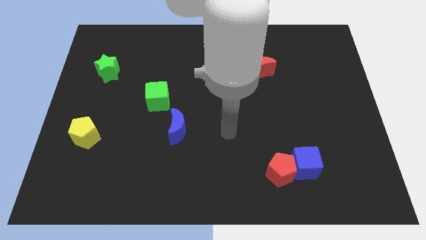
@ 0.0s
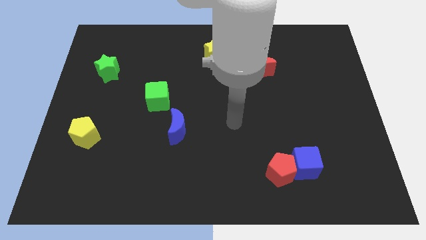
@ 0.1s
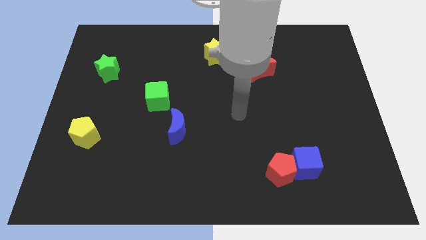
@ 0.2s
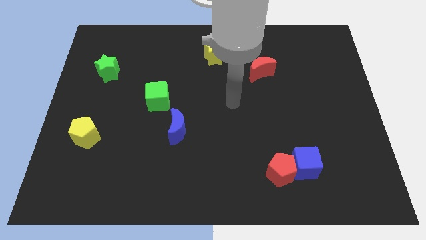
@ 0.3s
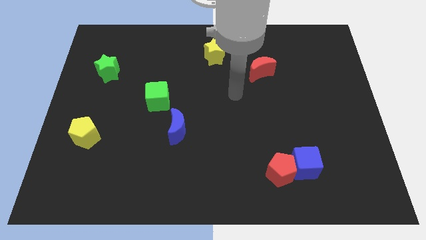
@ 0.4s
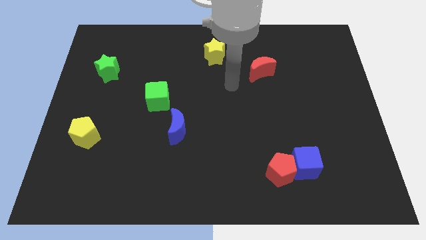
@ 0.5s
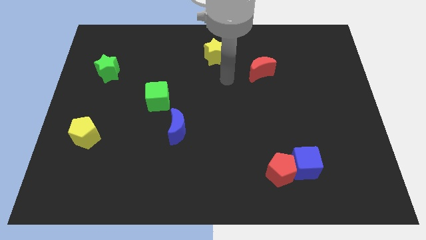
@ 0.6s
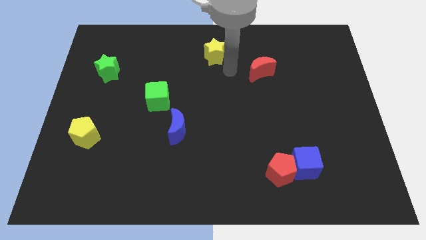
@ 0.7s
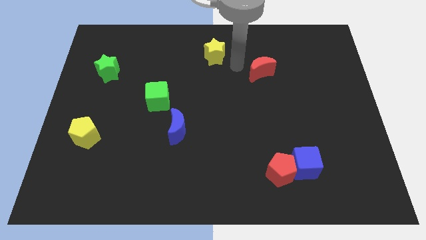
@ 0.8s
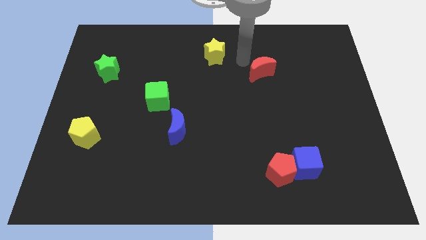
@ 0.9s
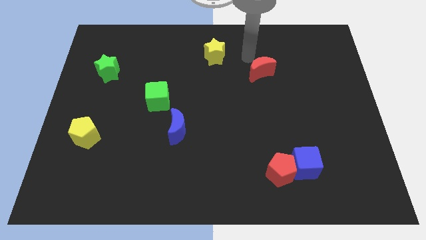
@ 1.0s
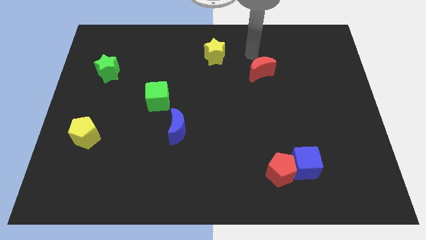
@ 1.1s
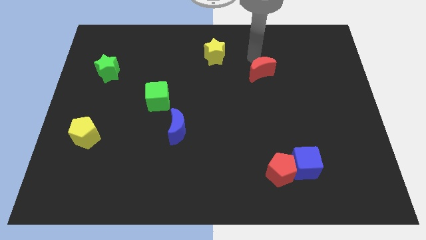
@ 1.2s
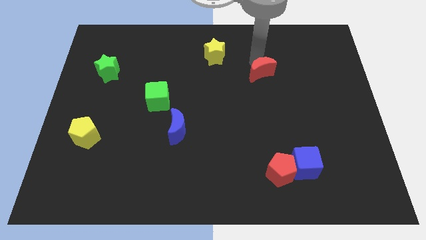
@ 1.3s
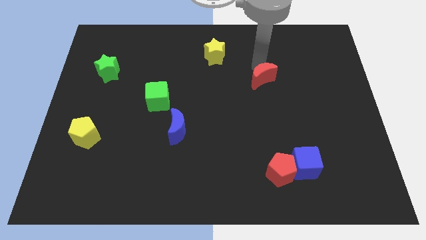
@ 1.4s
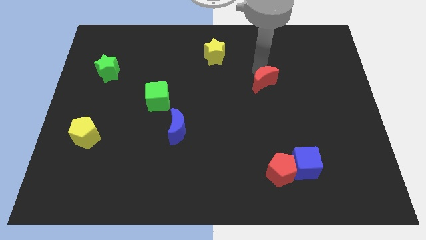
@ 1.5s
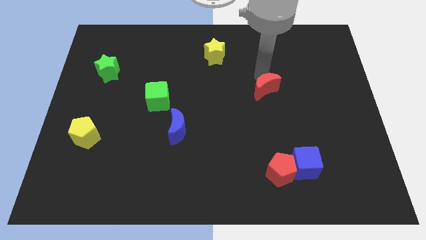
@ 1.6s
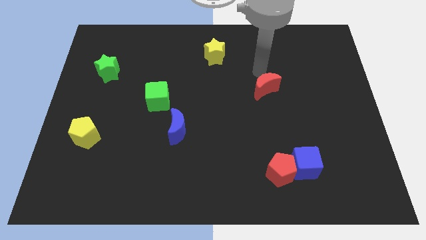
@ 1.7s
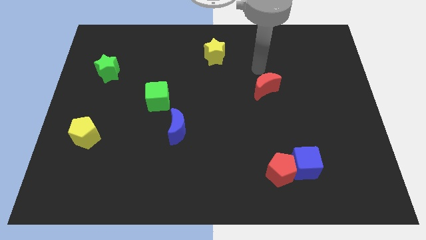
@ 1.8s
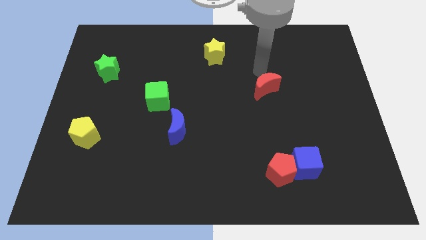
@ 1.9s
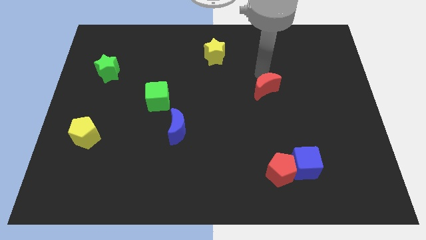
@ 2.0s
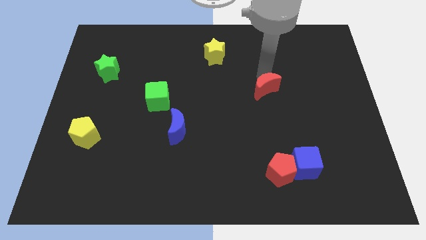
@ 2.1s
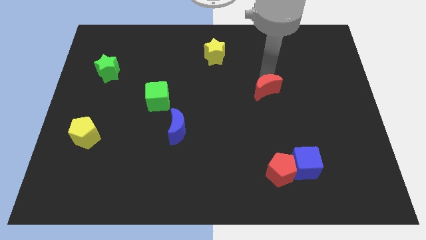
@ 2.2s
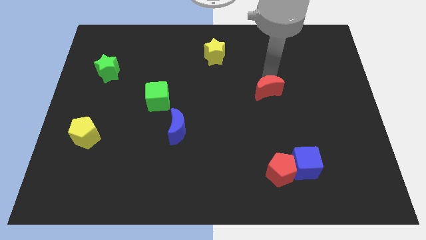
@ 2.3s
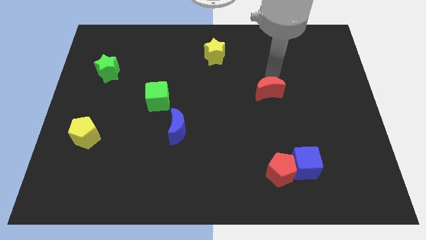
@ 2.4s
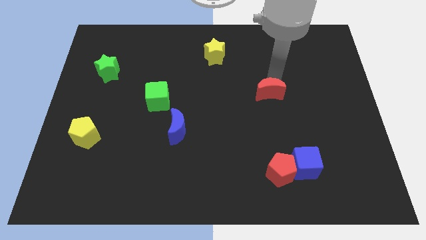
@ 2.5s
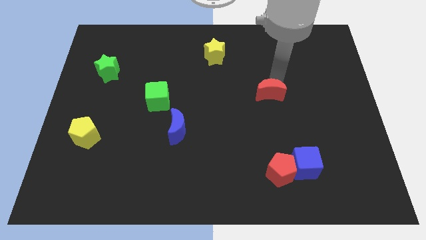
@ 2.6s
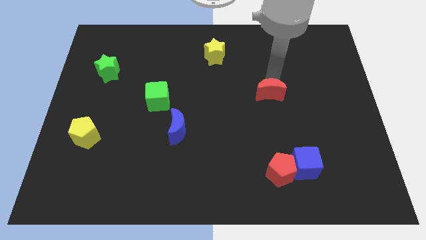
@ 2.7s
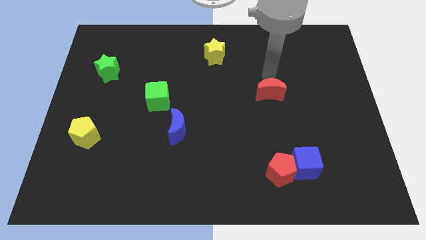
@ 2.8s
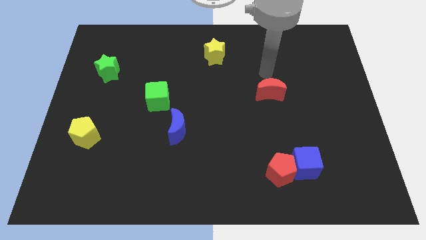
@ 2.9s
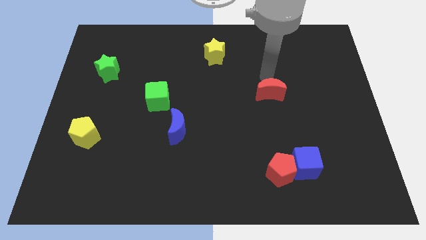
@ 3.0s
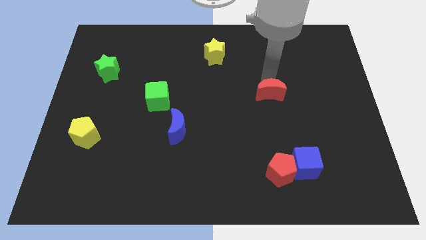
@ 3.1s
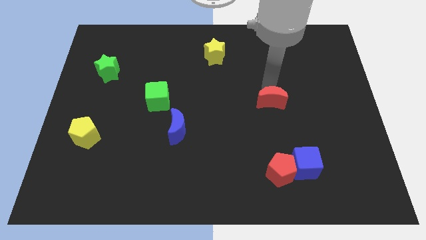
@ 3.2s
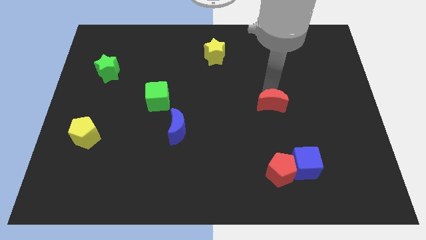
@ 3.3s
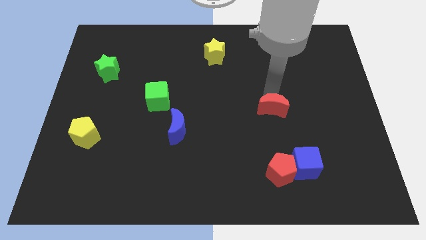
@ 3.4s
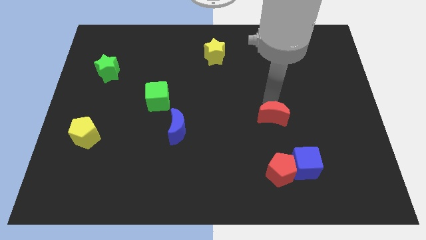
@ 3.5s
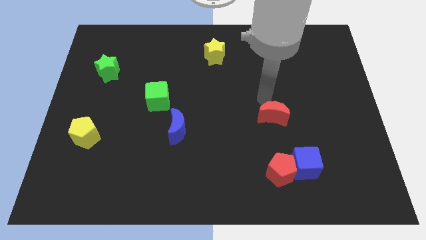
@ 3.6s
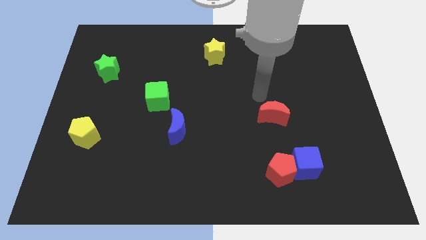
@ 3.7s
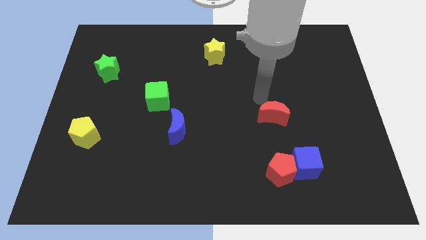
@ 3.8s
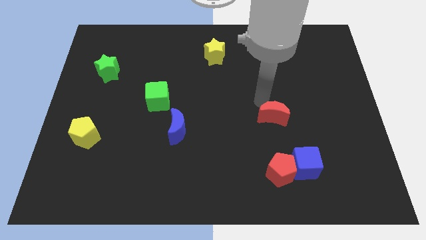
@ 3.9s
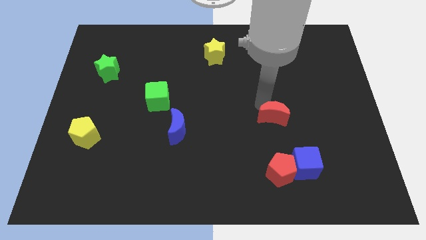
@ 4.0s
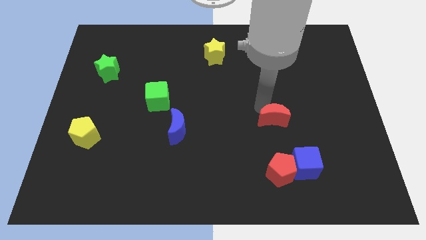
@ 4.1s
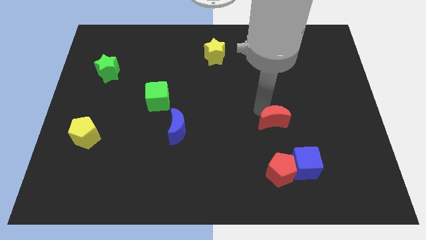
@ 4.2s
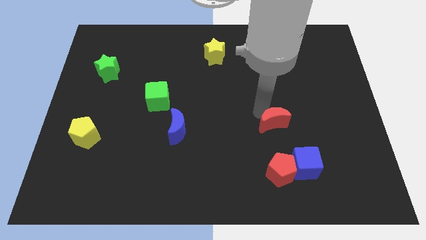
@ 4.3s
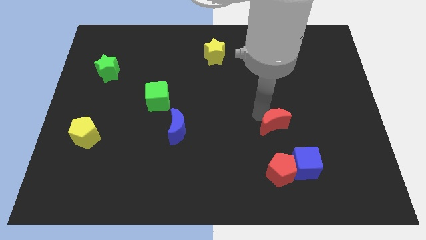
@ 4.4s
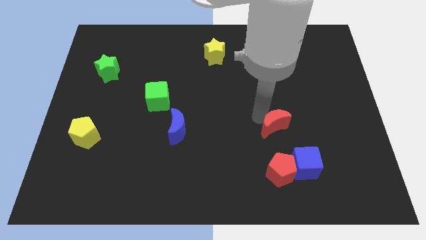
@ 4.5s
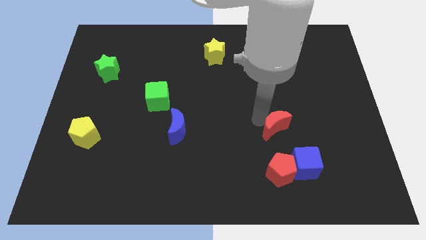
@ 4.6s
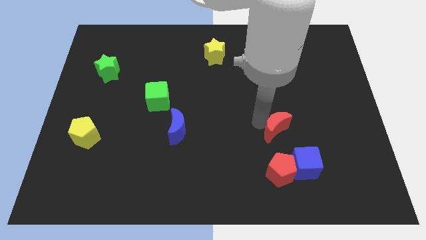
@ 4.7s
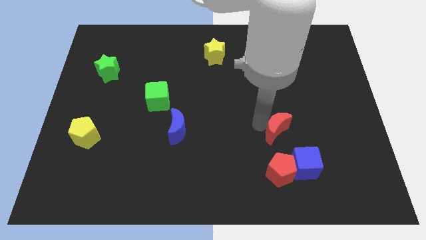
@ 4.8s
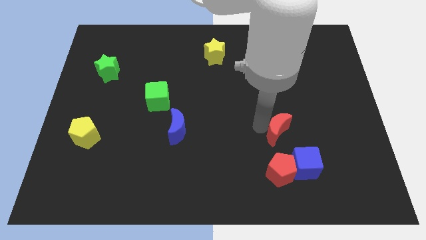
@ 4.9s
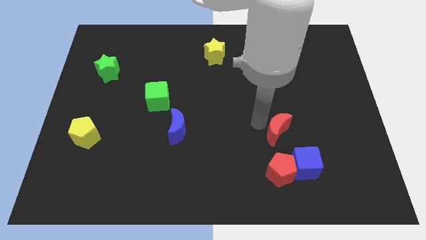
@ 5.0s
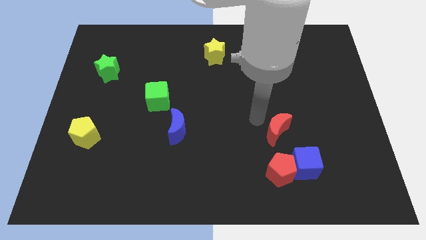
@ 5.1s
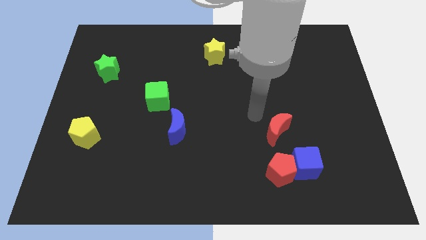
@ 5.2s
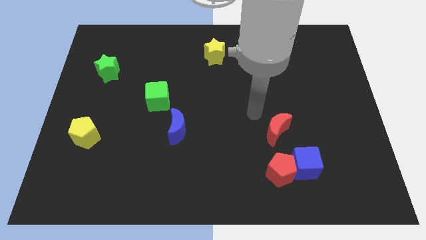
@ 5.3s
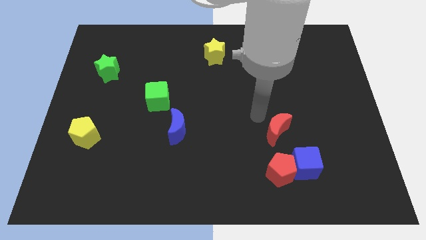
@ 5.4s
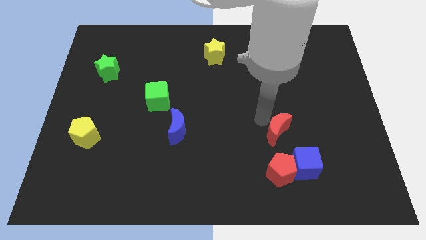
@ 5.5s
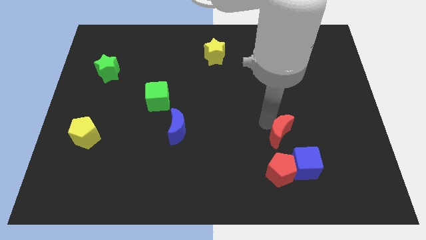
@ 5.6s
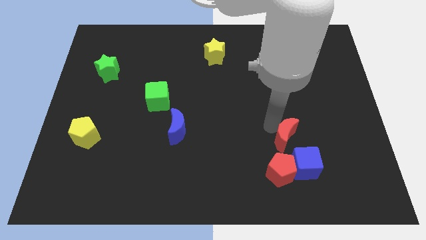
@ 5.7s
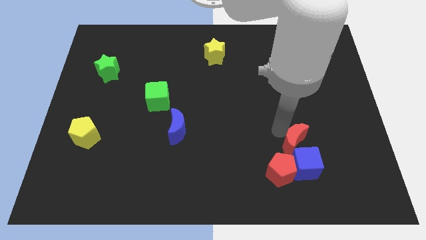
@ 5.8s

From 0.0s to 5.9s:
move the red moon to the blue cube
